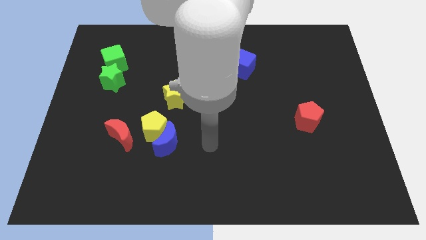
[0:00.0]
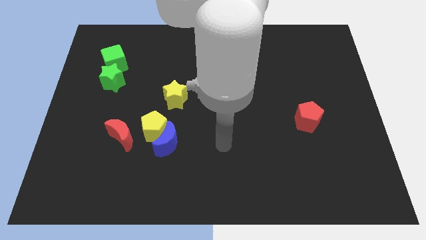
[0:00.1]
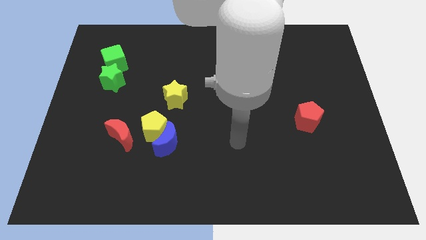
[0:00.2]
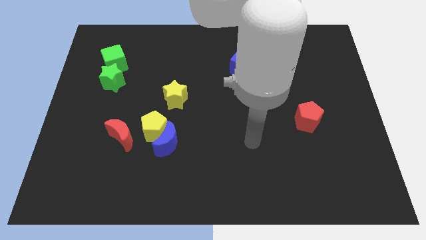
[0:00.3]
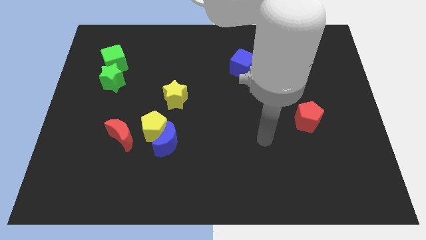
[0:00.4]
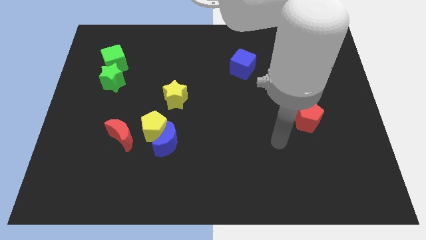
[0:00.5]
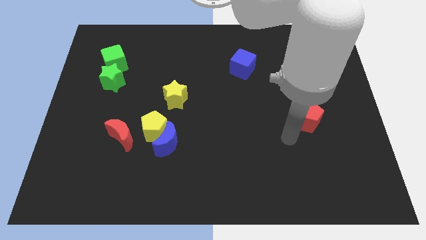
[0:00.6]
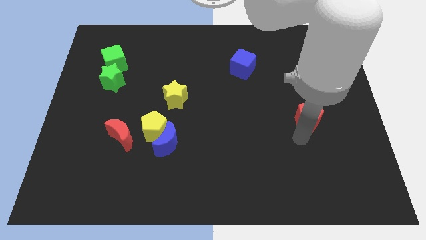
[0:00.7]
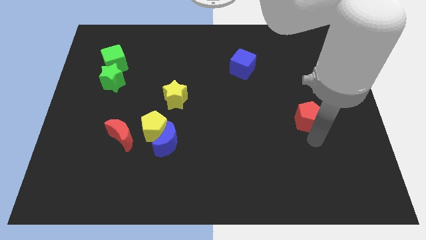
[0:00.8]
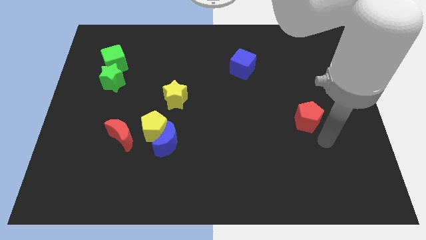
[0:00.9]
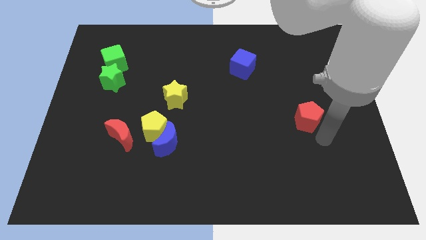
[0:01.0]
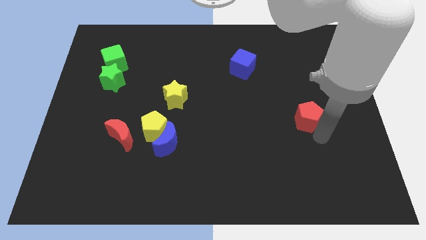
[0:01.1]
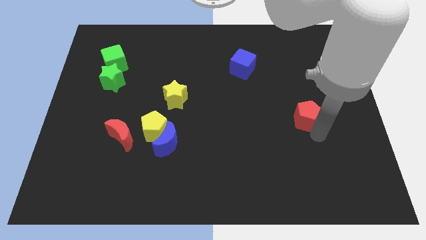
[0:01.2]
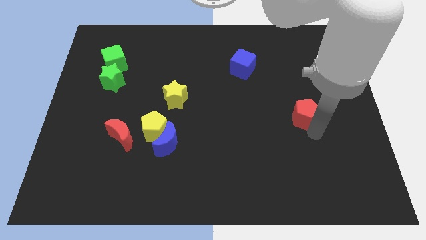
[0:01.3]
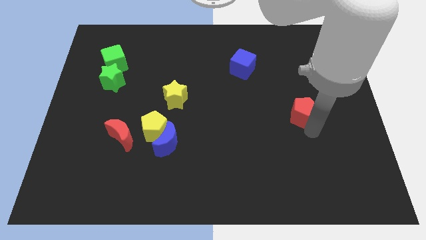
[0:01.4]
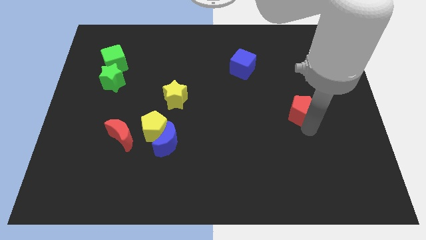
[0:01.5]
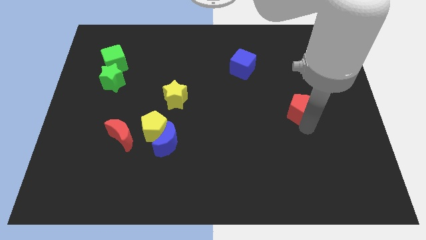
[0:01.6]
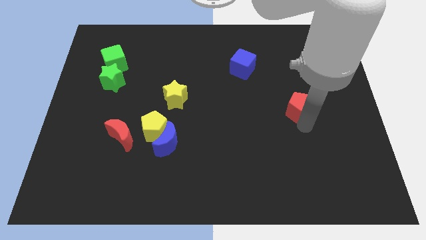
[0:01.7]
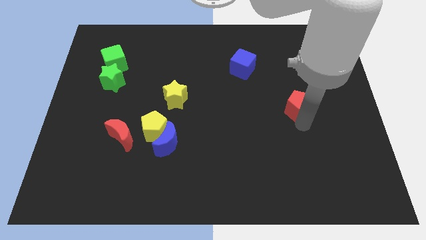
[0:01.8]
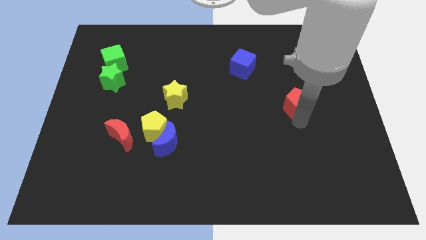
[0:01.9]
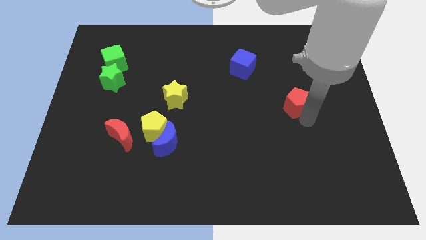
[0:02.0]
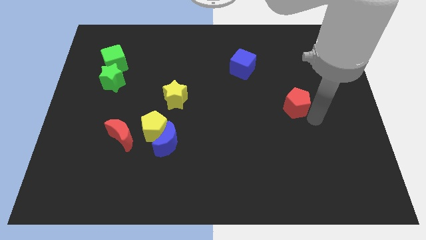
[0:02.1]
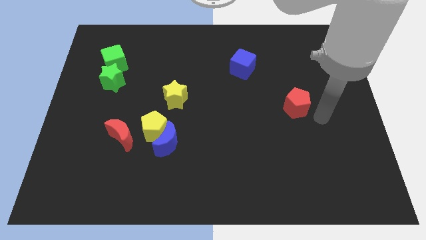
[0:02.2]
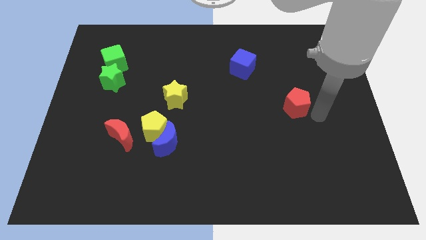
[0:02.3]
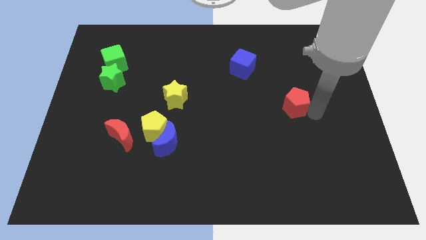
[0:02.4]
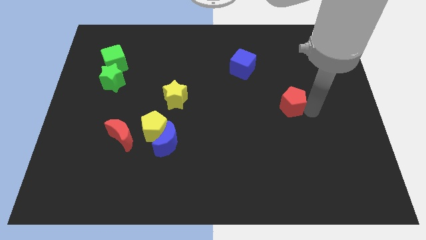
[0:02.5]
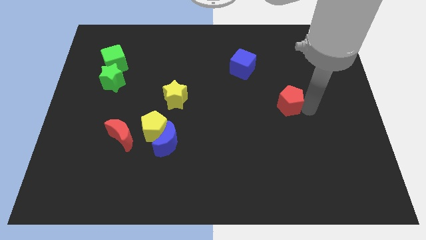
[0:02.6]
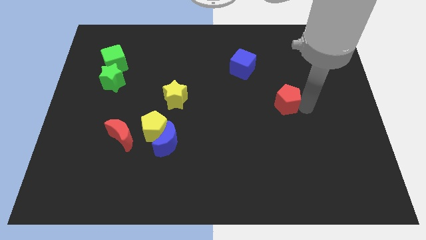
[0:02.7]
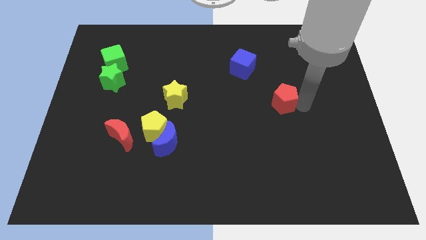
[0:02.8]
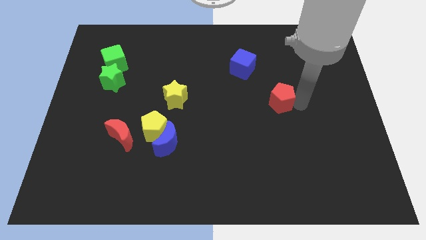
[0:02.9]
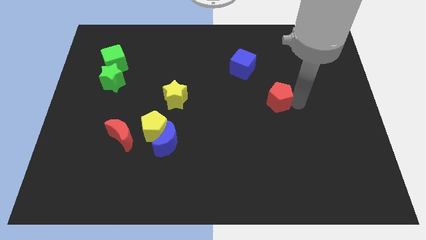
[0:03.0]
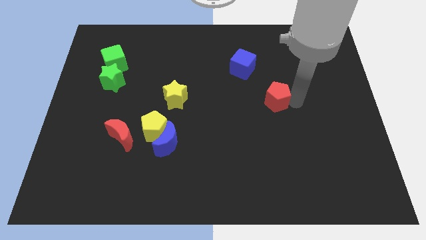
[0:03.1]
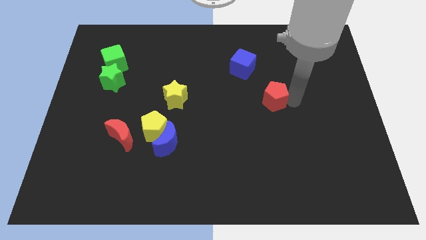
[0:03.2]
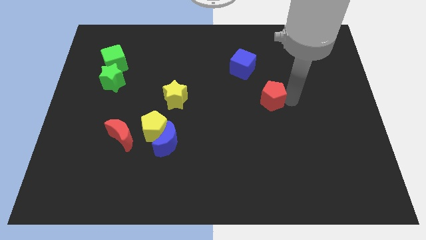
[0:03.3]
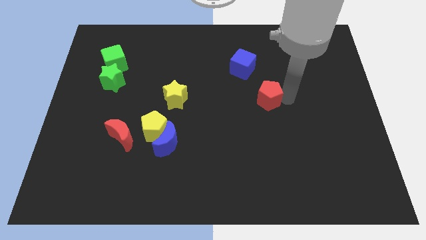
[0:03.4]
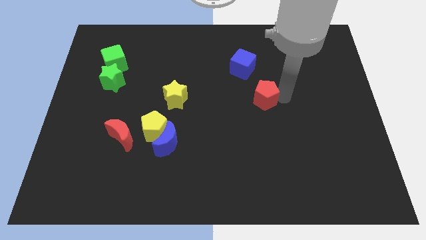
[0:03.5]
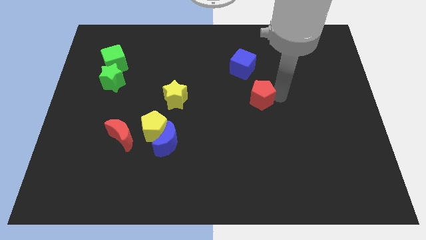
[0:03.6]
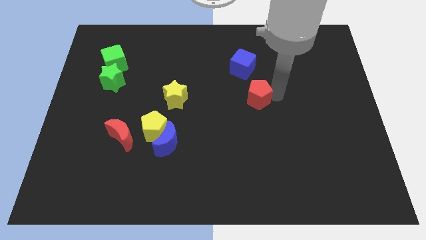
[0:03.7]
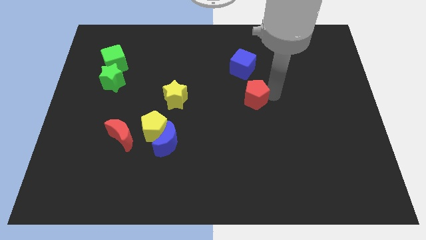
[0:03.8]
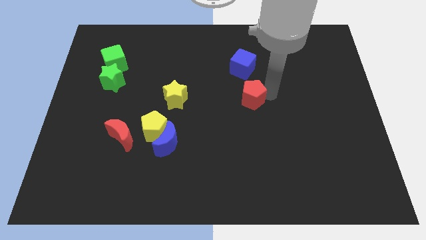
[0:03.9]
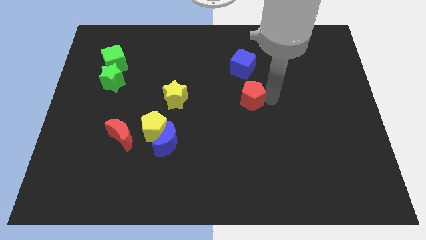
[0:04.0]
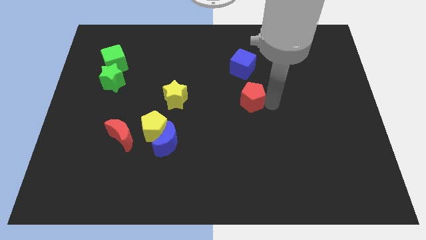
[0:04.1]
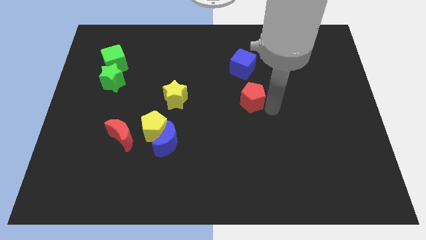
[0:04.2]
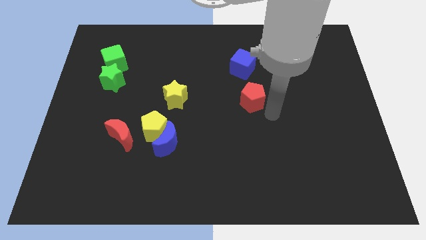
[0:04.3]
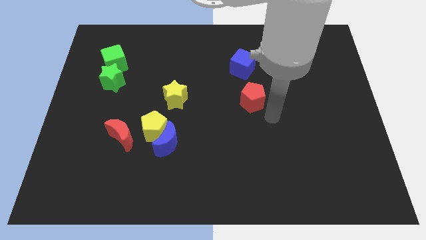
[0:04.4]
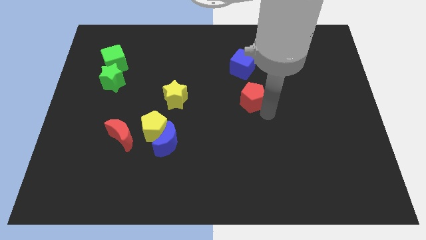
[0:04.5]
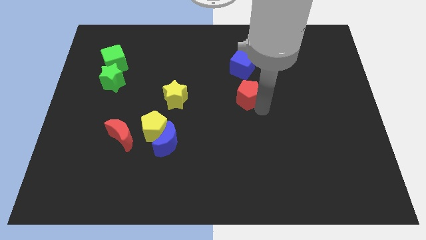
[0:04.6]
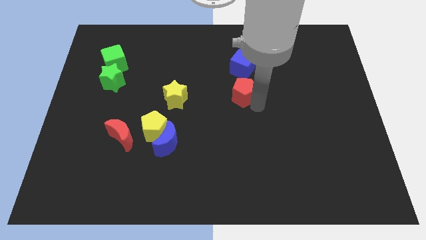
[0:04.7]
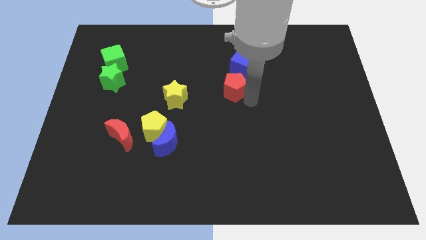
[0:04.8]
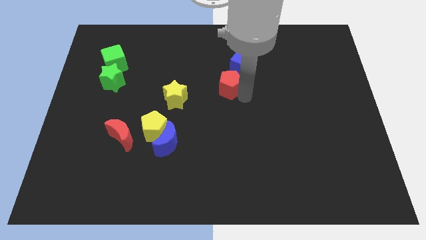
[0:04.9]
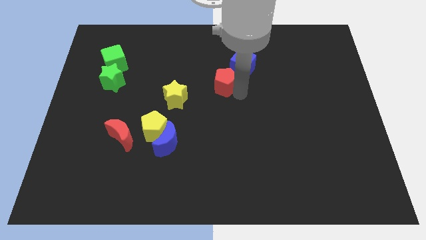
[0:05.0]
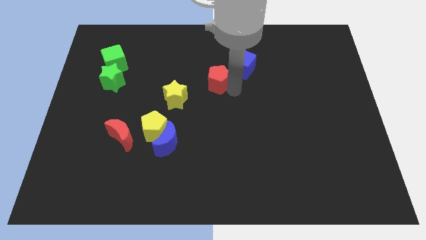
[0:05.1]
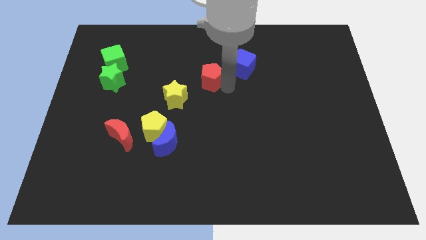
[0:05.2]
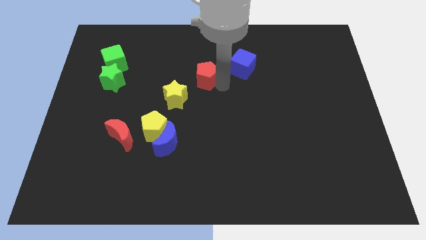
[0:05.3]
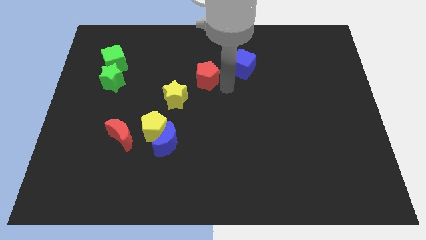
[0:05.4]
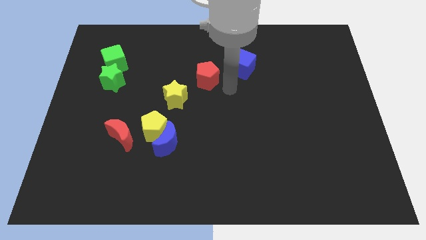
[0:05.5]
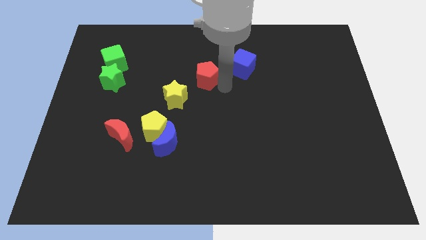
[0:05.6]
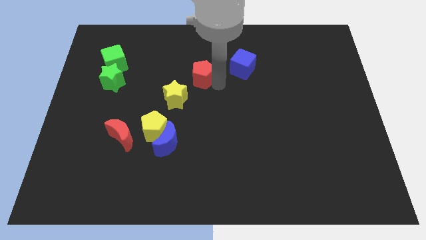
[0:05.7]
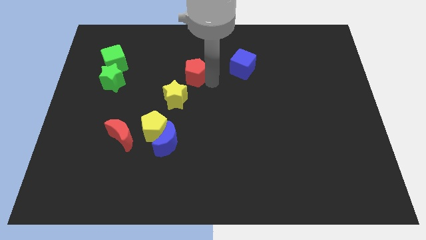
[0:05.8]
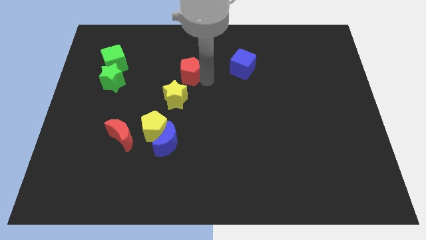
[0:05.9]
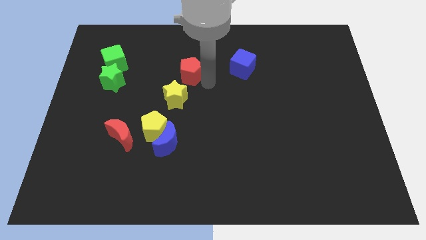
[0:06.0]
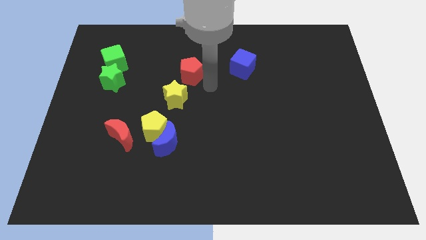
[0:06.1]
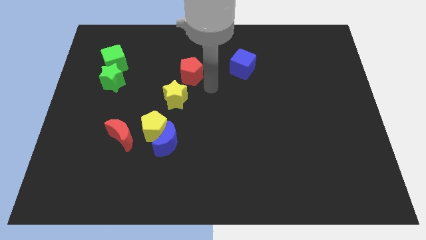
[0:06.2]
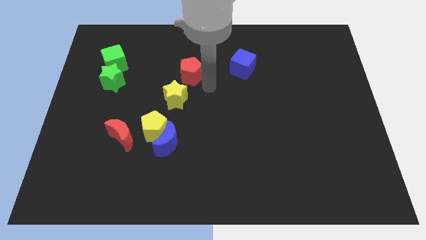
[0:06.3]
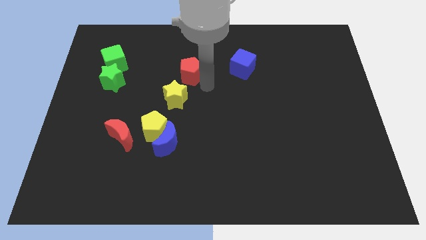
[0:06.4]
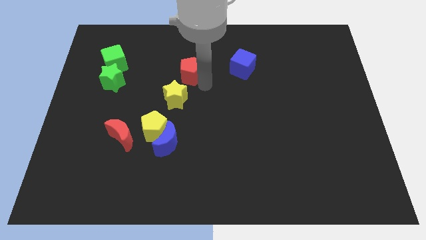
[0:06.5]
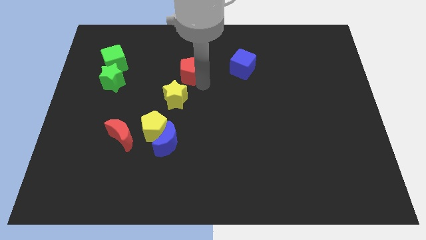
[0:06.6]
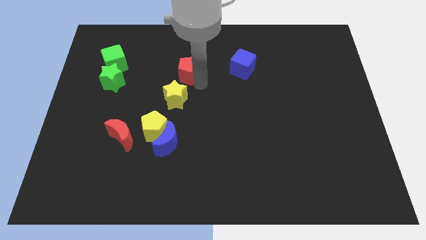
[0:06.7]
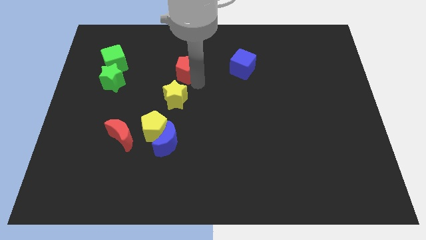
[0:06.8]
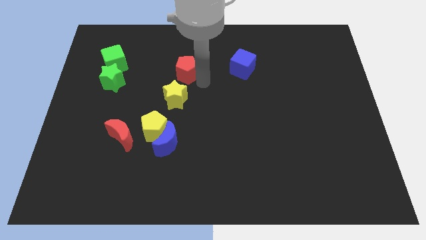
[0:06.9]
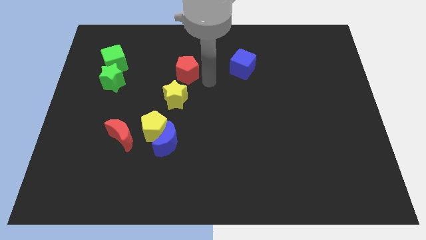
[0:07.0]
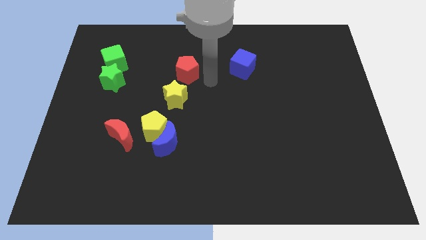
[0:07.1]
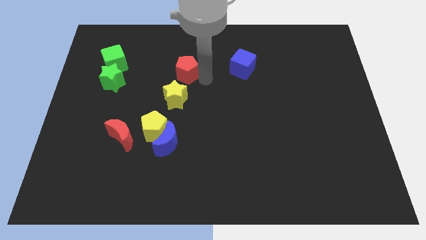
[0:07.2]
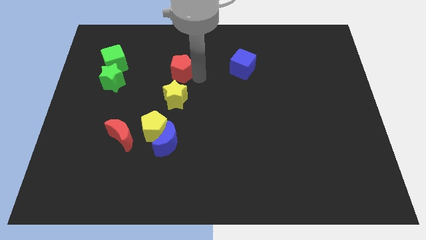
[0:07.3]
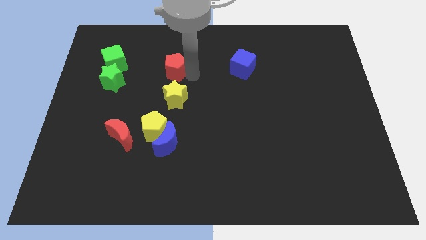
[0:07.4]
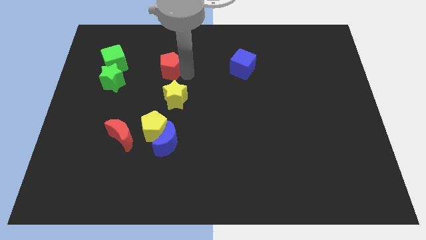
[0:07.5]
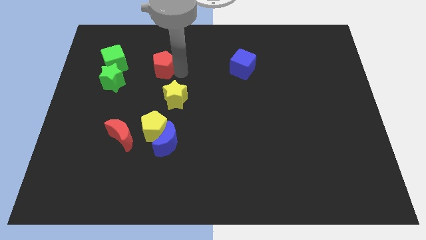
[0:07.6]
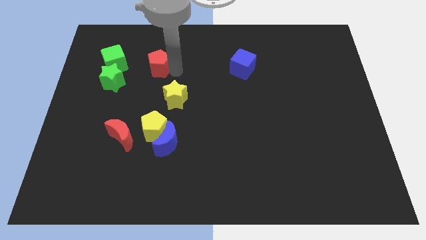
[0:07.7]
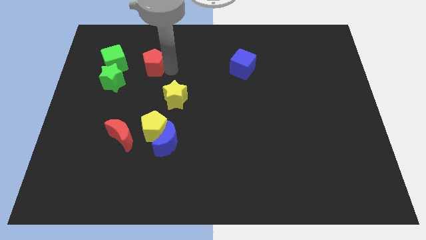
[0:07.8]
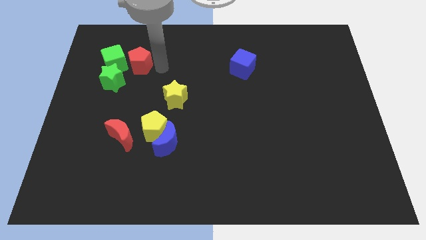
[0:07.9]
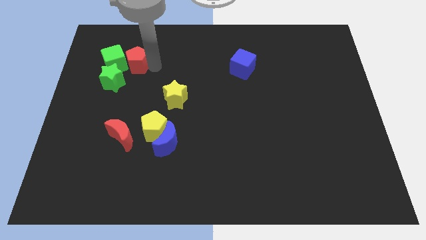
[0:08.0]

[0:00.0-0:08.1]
push the red pentagon next to the green cube
